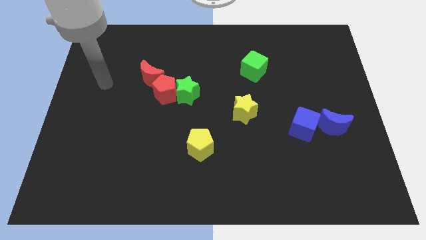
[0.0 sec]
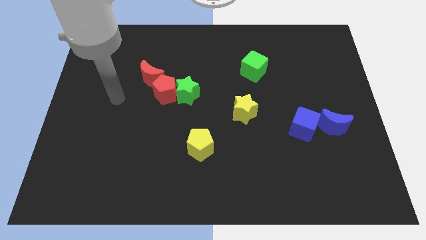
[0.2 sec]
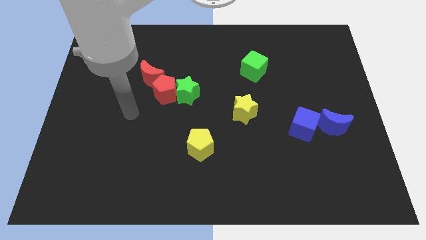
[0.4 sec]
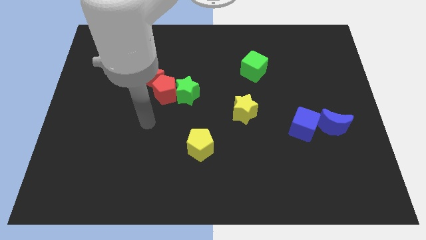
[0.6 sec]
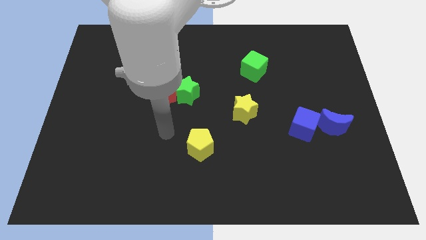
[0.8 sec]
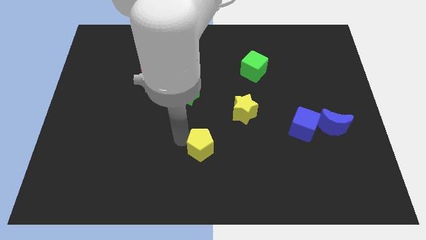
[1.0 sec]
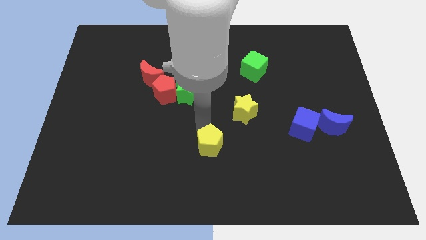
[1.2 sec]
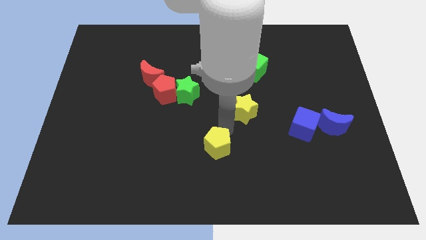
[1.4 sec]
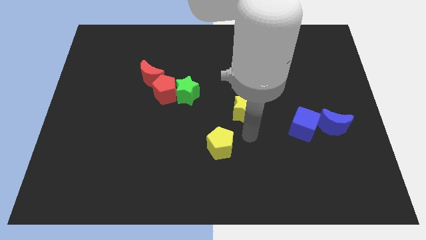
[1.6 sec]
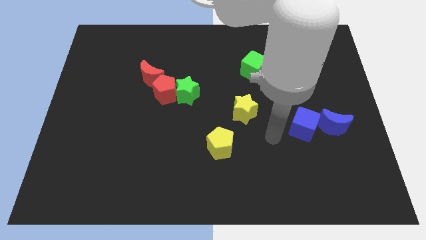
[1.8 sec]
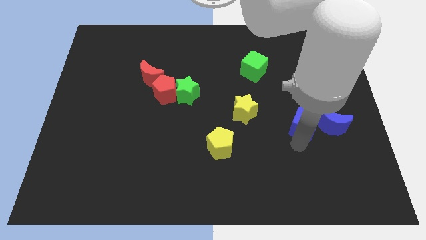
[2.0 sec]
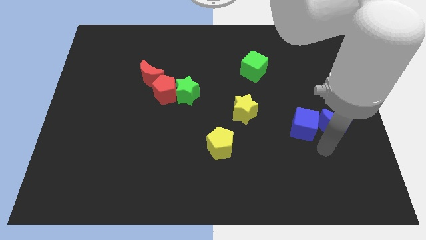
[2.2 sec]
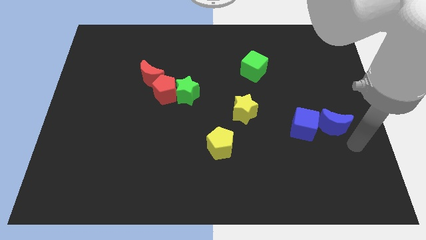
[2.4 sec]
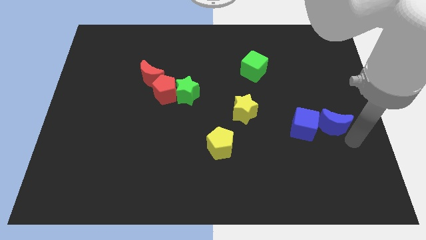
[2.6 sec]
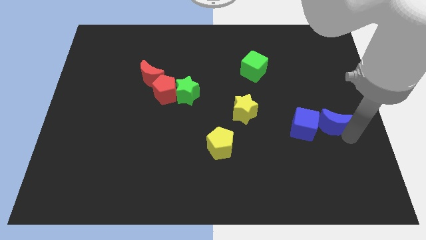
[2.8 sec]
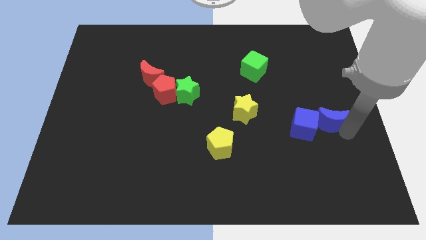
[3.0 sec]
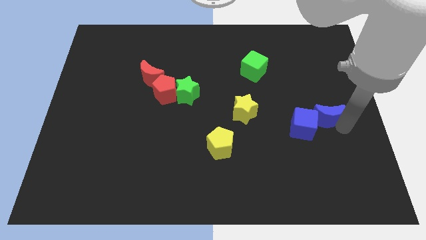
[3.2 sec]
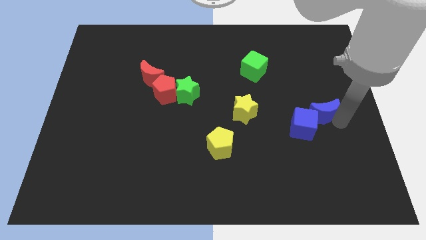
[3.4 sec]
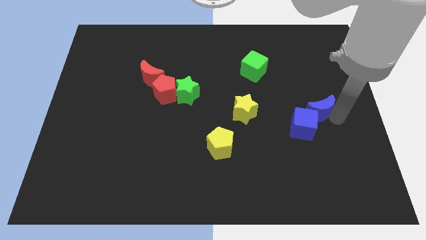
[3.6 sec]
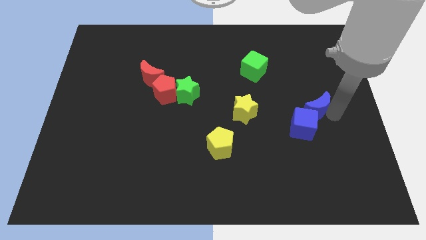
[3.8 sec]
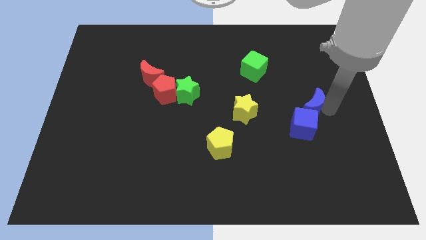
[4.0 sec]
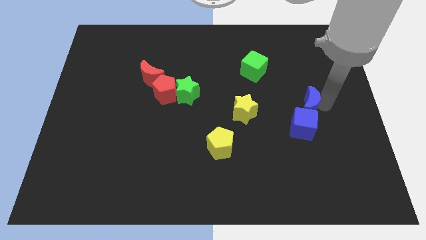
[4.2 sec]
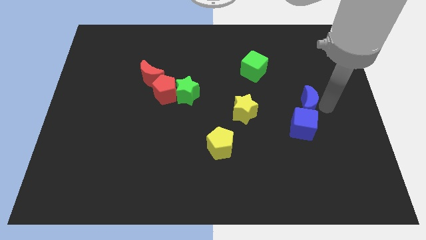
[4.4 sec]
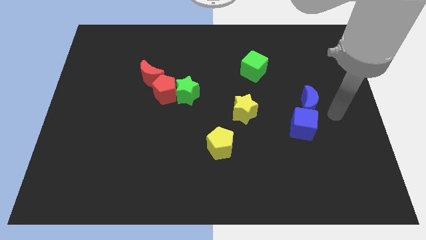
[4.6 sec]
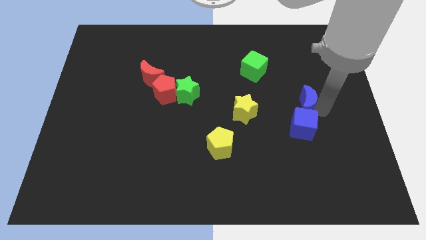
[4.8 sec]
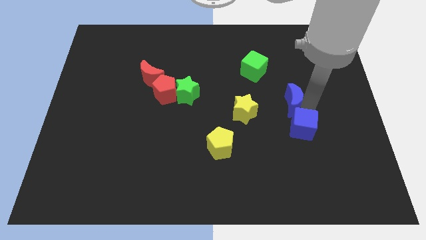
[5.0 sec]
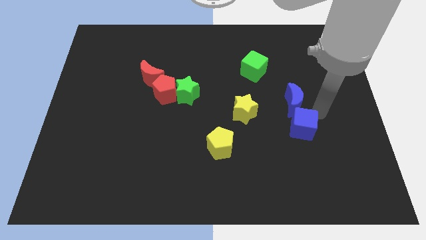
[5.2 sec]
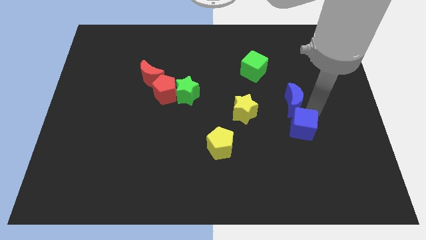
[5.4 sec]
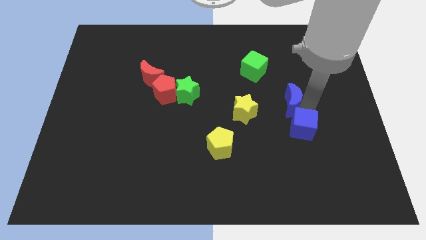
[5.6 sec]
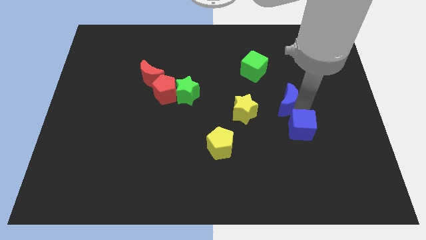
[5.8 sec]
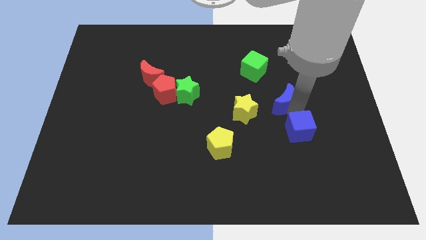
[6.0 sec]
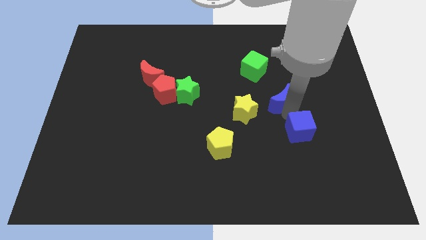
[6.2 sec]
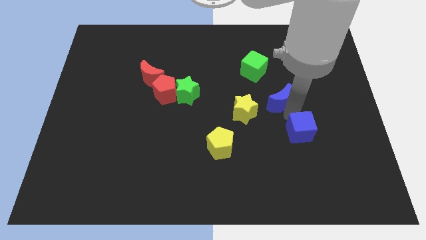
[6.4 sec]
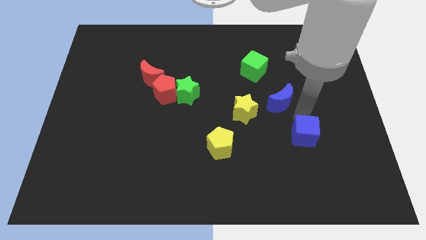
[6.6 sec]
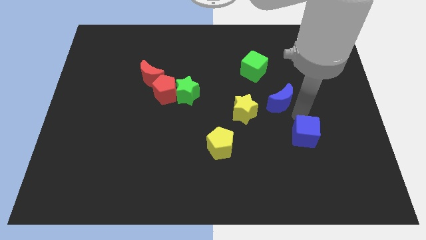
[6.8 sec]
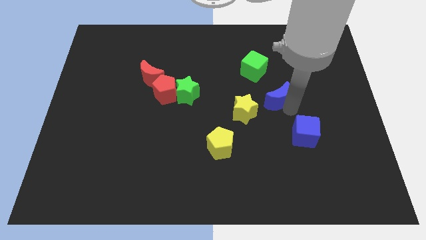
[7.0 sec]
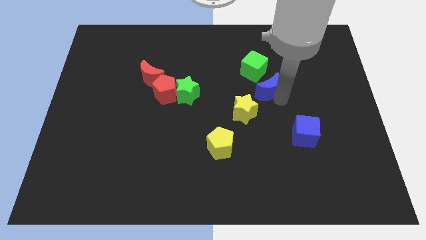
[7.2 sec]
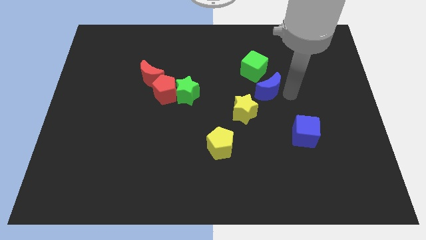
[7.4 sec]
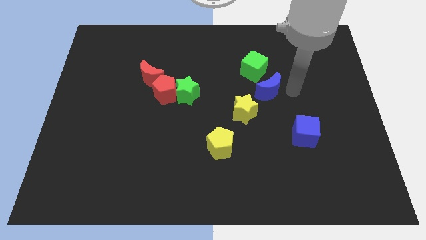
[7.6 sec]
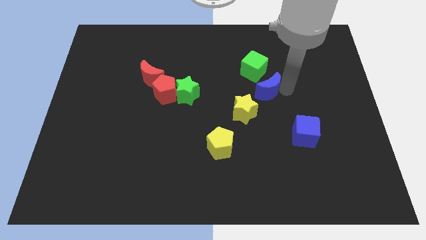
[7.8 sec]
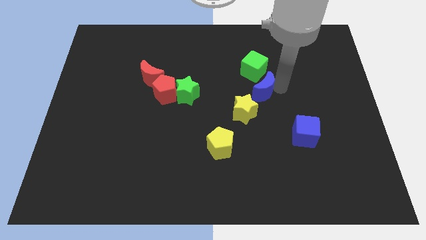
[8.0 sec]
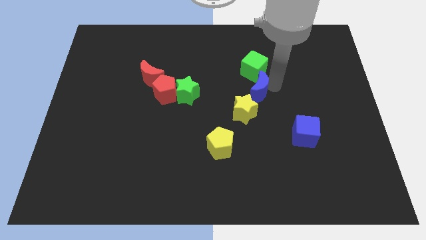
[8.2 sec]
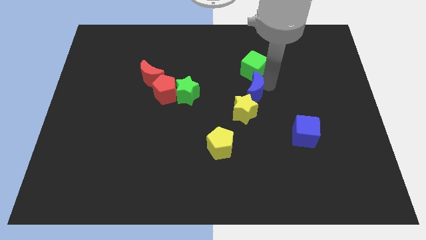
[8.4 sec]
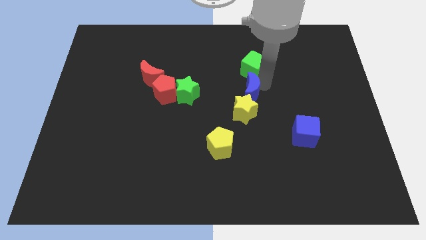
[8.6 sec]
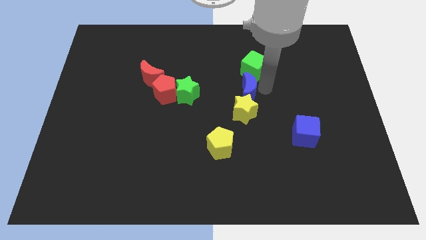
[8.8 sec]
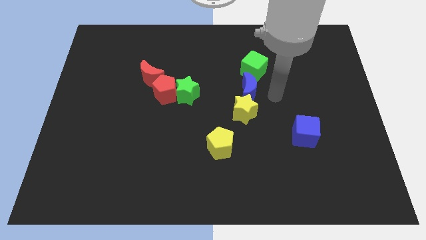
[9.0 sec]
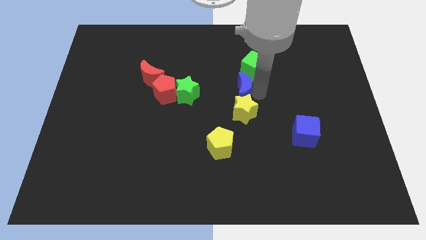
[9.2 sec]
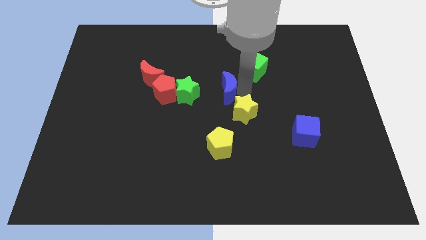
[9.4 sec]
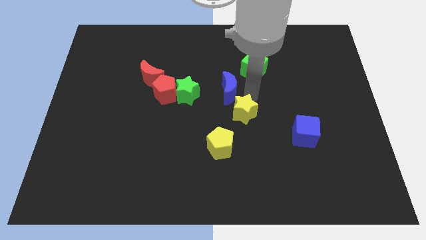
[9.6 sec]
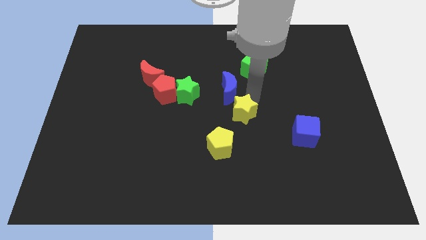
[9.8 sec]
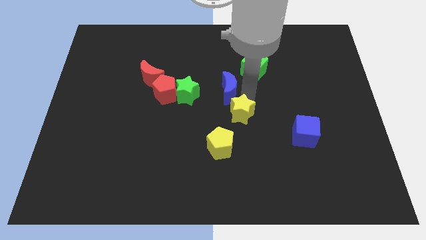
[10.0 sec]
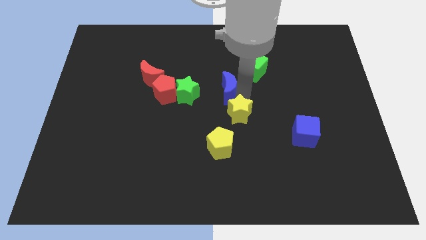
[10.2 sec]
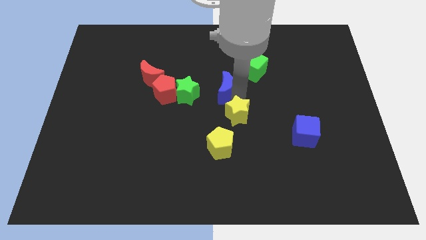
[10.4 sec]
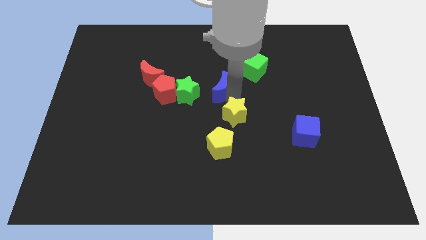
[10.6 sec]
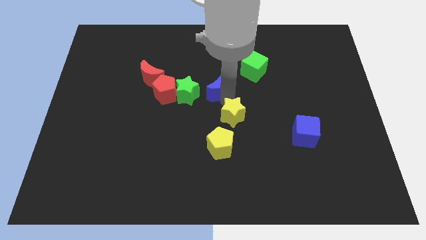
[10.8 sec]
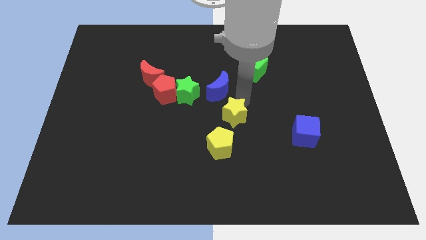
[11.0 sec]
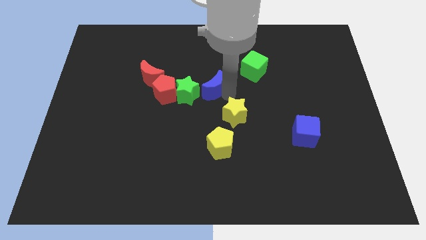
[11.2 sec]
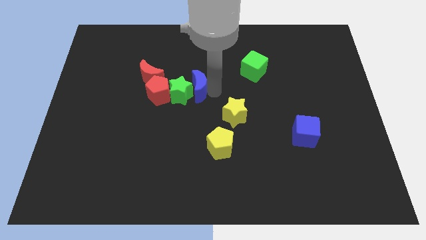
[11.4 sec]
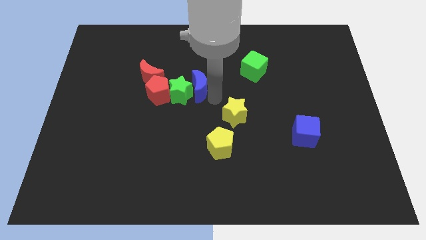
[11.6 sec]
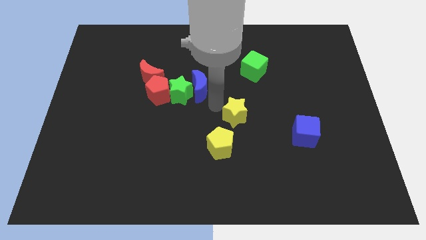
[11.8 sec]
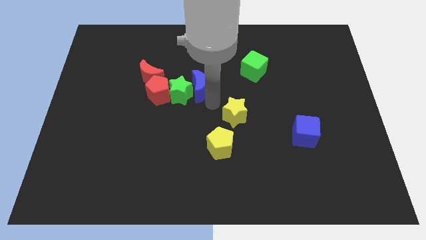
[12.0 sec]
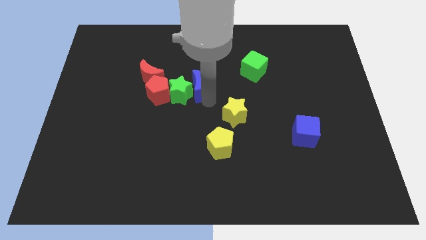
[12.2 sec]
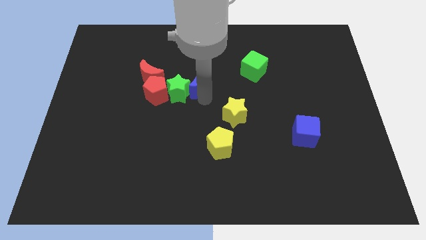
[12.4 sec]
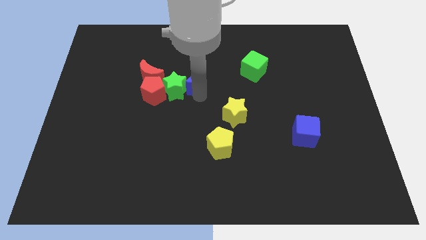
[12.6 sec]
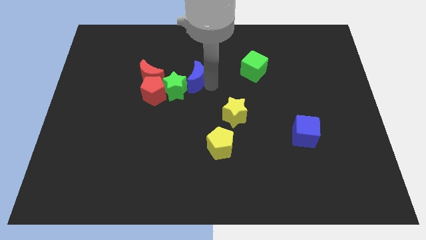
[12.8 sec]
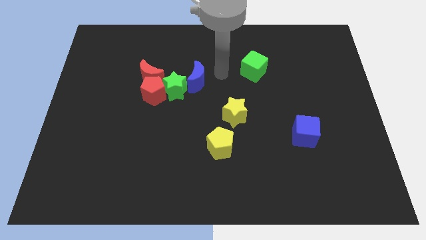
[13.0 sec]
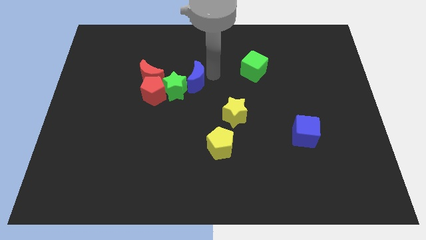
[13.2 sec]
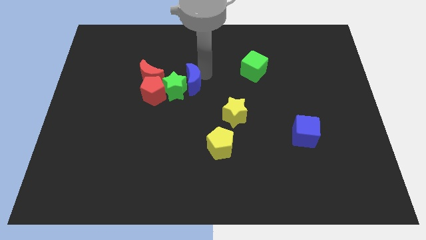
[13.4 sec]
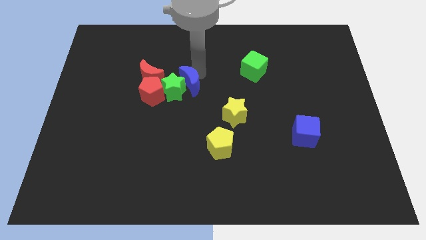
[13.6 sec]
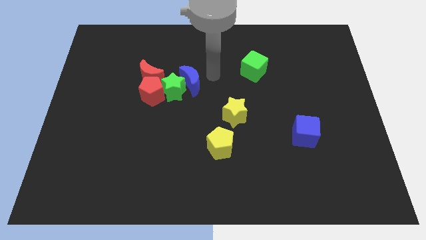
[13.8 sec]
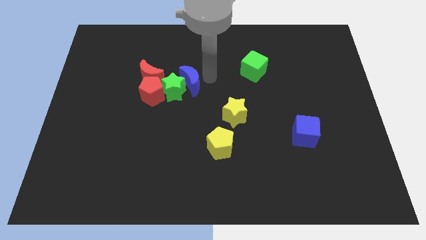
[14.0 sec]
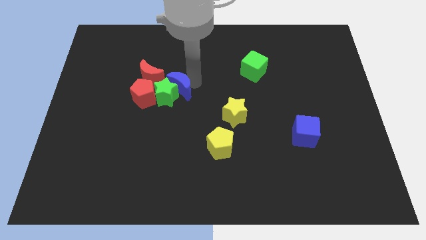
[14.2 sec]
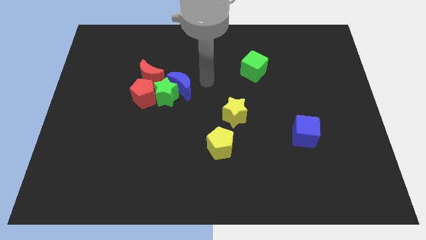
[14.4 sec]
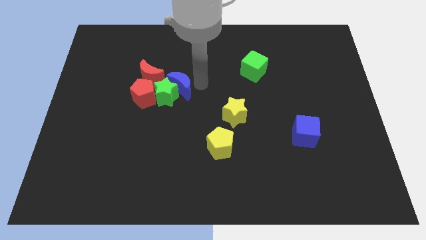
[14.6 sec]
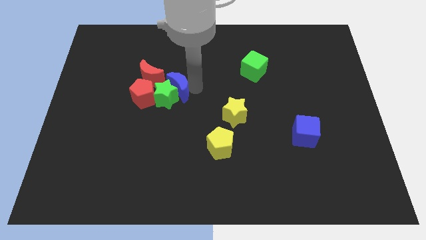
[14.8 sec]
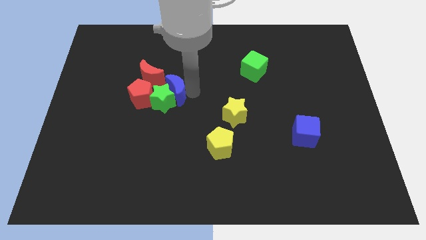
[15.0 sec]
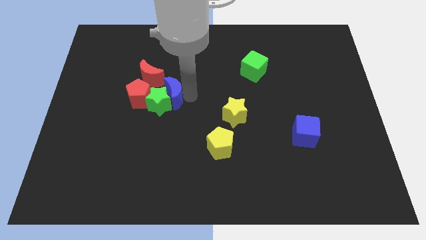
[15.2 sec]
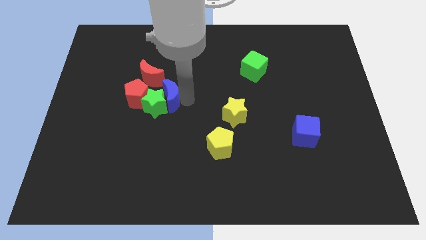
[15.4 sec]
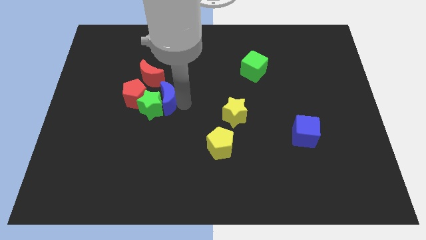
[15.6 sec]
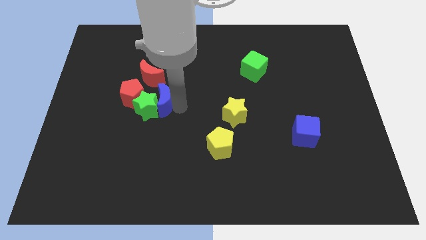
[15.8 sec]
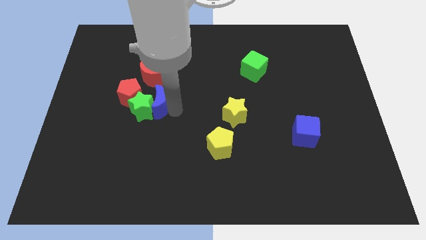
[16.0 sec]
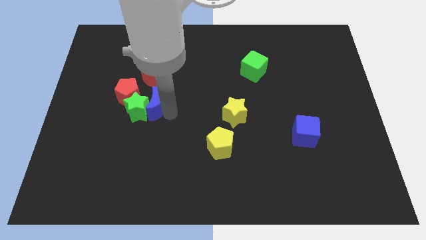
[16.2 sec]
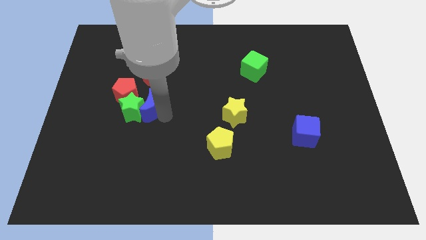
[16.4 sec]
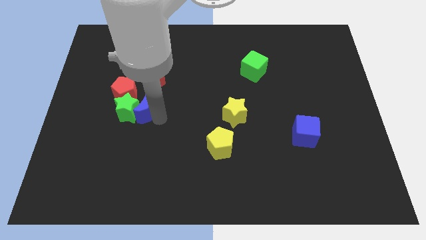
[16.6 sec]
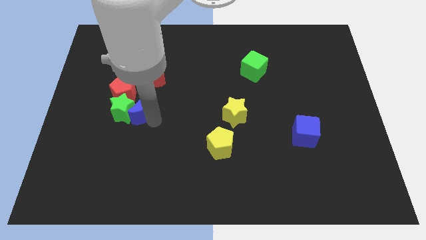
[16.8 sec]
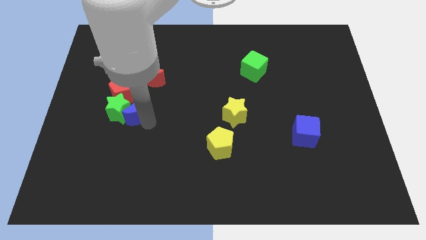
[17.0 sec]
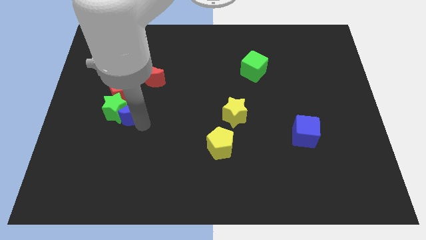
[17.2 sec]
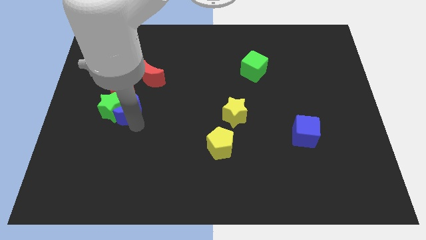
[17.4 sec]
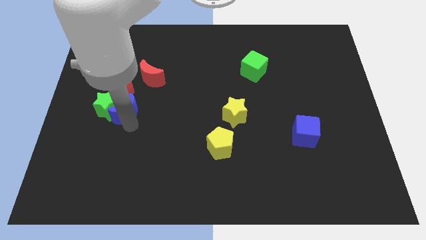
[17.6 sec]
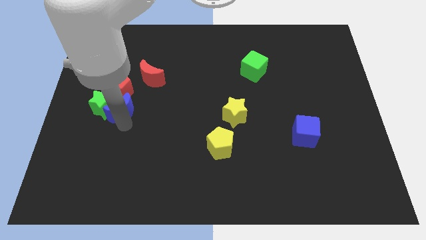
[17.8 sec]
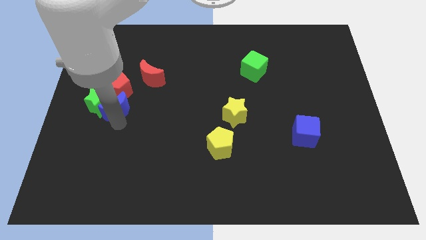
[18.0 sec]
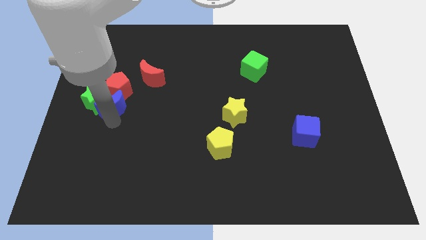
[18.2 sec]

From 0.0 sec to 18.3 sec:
move the blue moon towards the red pentagon
